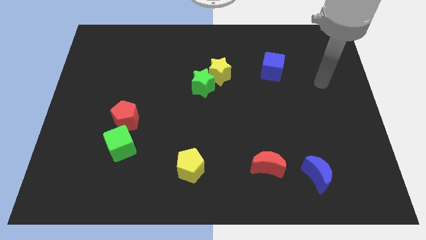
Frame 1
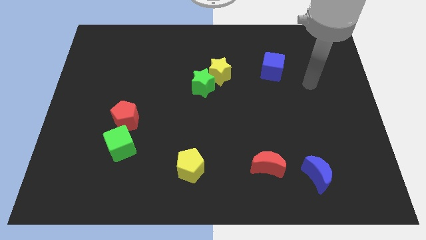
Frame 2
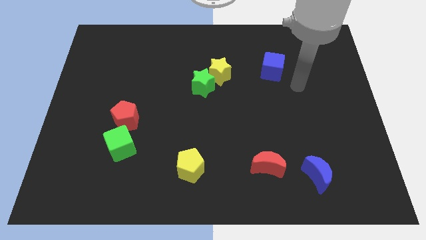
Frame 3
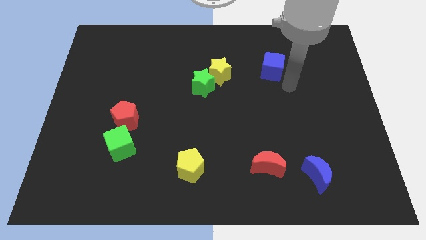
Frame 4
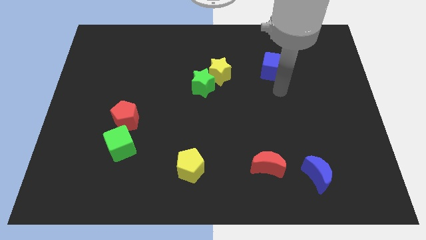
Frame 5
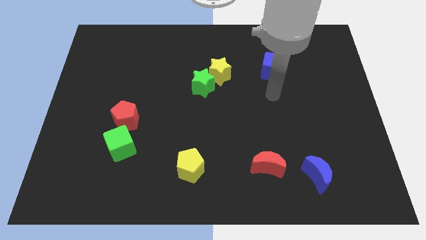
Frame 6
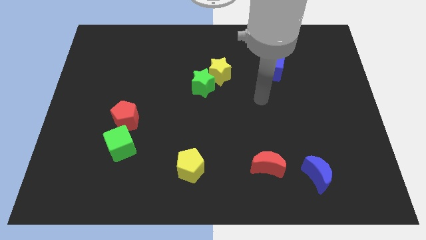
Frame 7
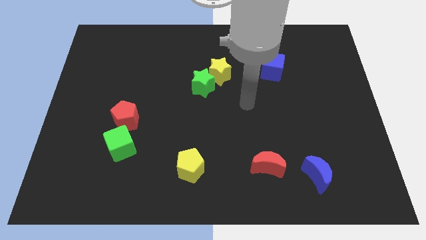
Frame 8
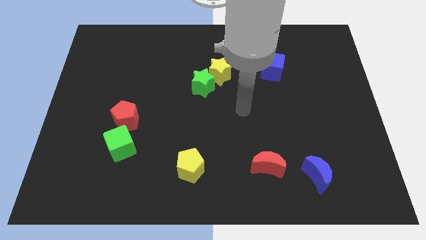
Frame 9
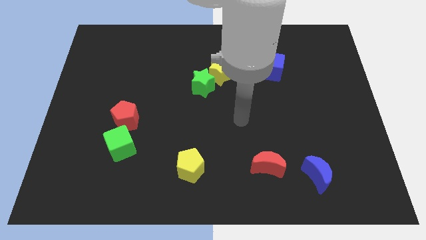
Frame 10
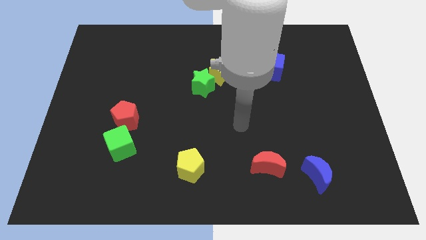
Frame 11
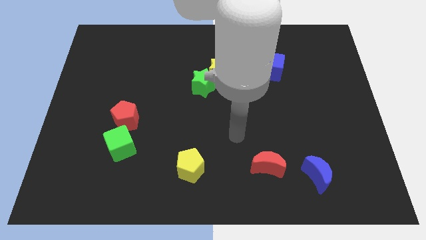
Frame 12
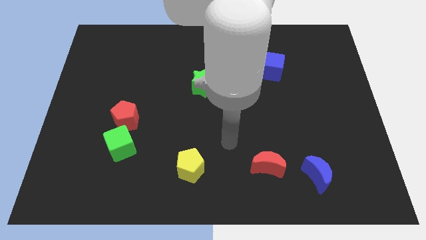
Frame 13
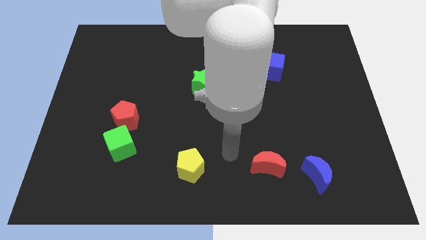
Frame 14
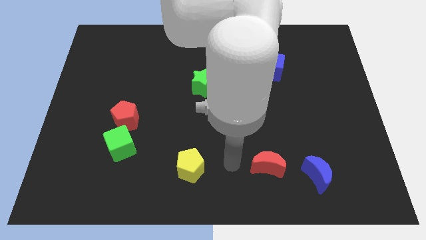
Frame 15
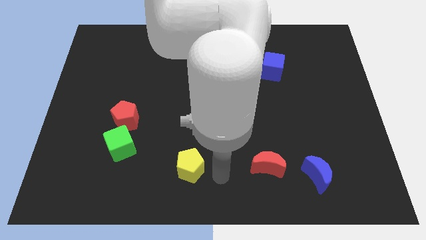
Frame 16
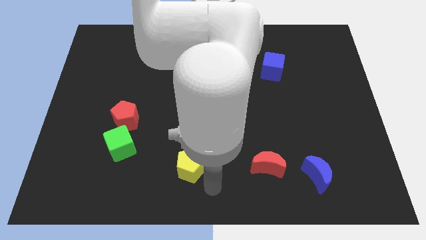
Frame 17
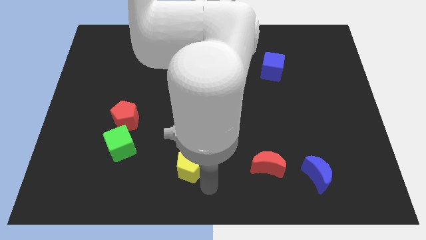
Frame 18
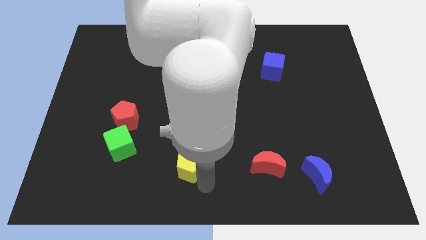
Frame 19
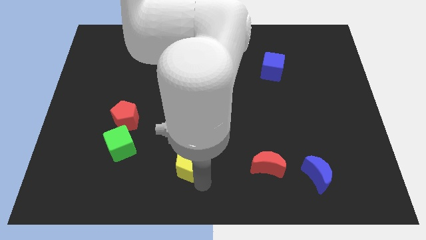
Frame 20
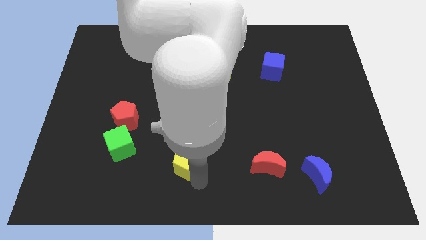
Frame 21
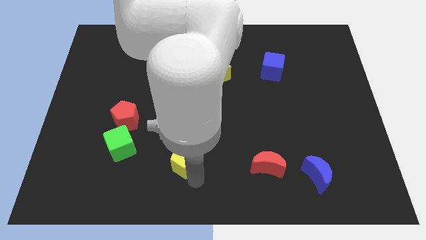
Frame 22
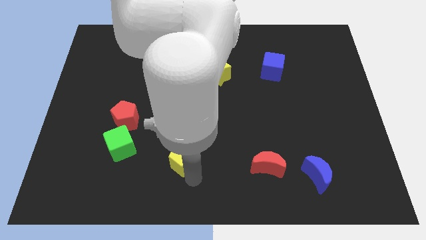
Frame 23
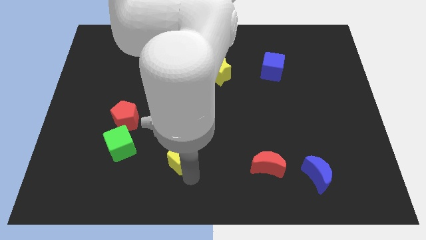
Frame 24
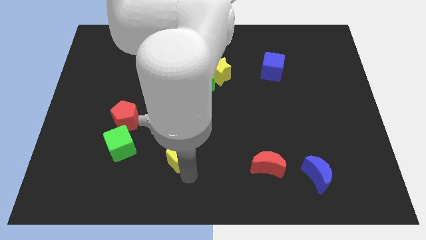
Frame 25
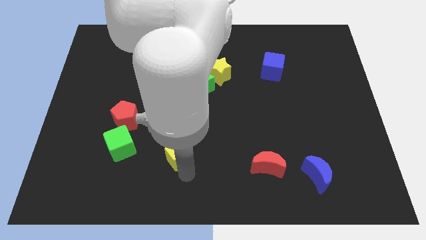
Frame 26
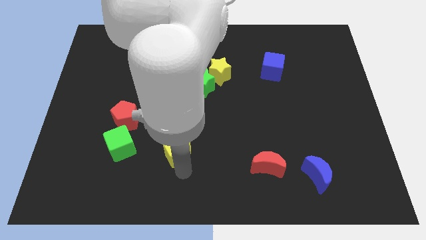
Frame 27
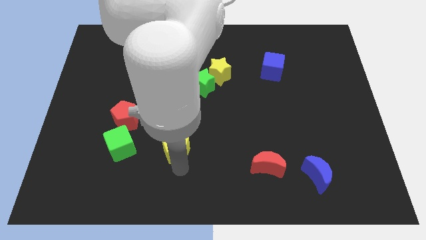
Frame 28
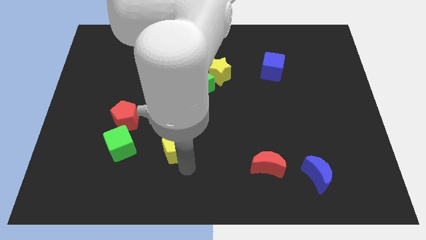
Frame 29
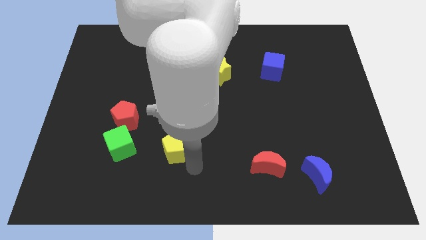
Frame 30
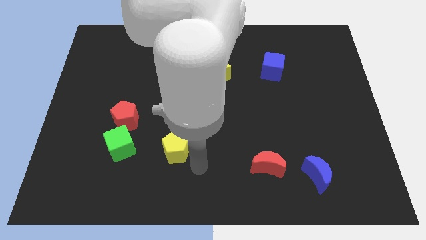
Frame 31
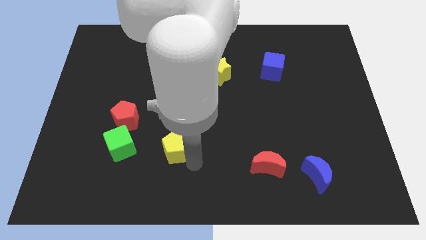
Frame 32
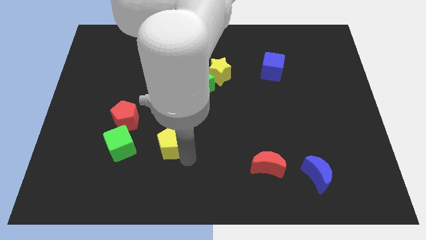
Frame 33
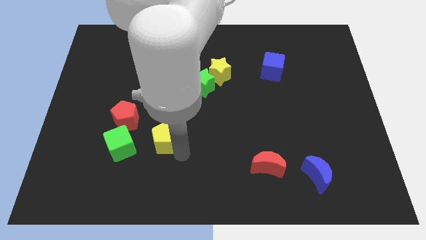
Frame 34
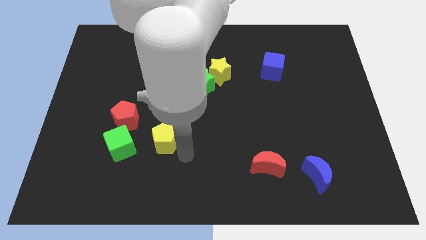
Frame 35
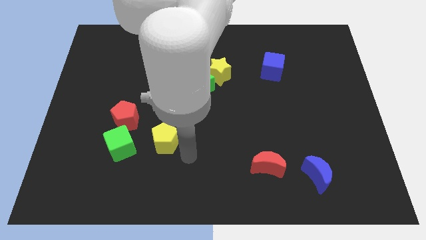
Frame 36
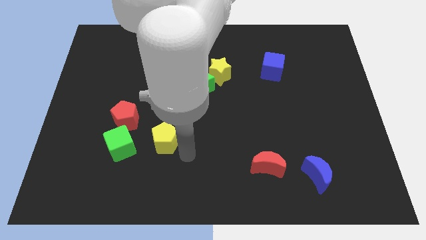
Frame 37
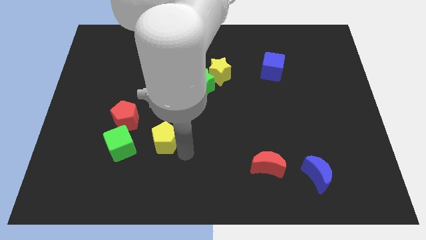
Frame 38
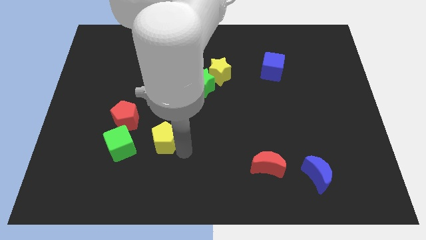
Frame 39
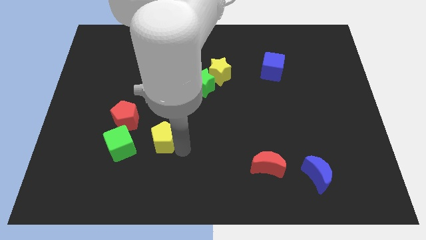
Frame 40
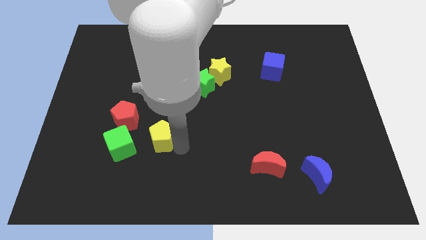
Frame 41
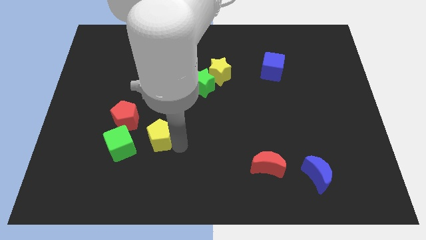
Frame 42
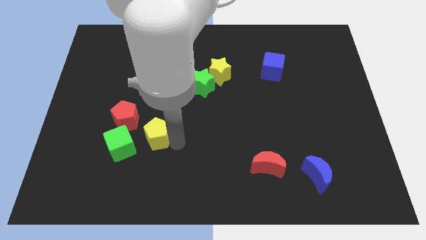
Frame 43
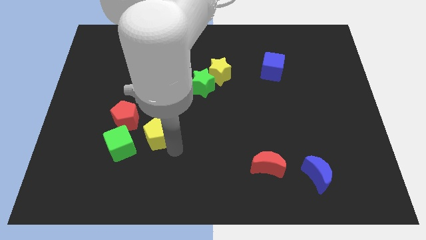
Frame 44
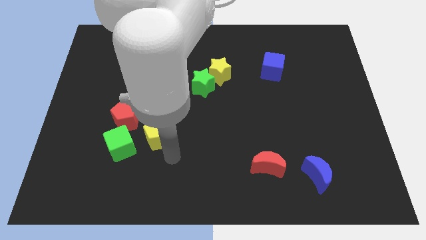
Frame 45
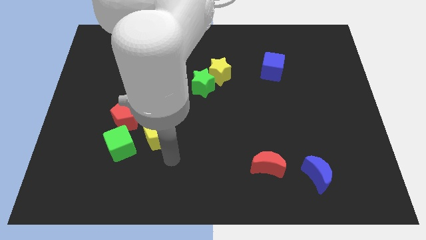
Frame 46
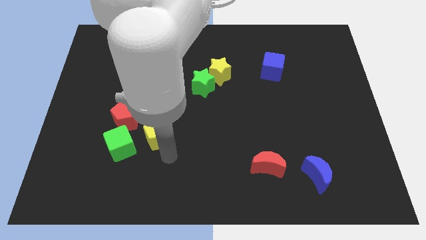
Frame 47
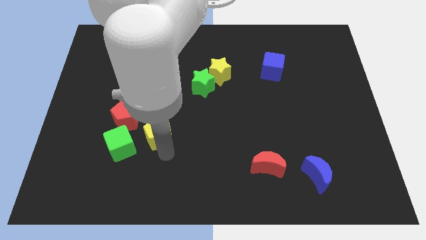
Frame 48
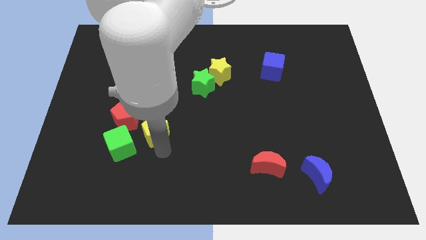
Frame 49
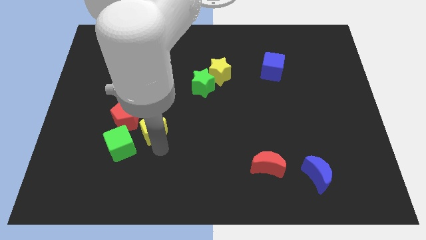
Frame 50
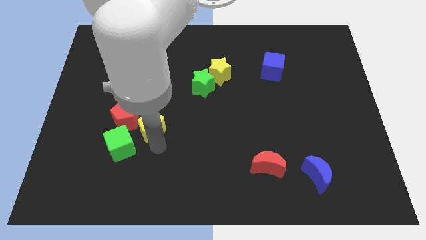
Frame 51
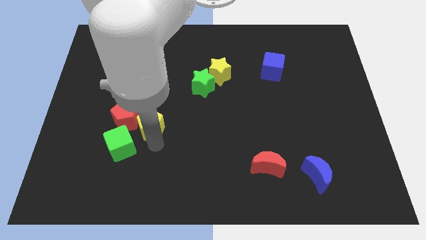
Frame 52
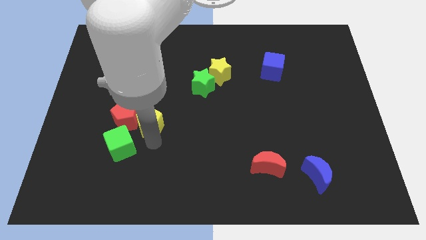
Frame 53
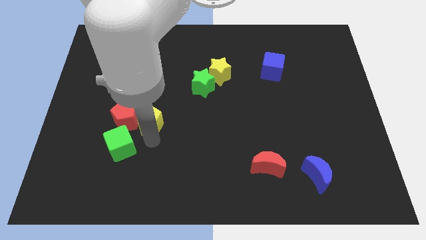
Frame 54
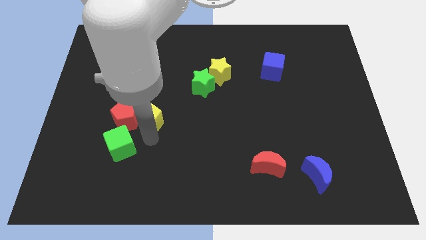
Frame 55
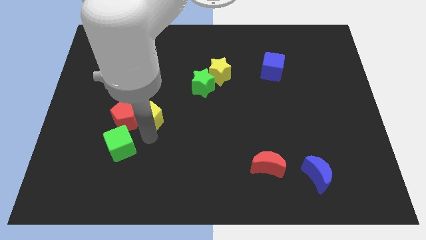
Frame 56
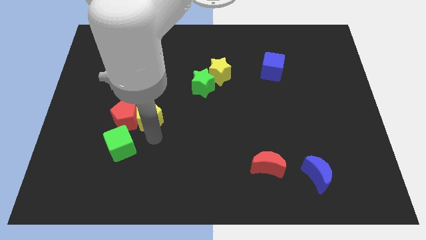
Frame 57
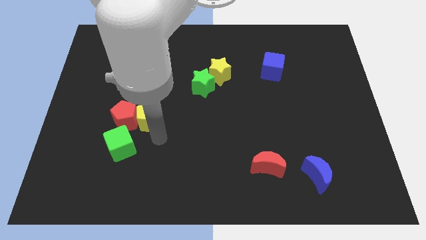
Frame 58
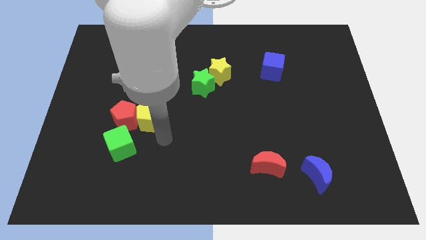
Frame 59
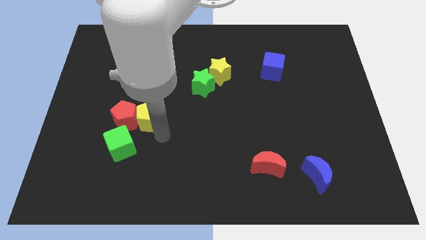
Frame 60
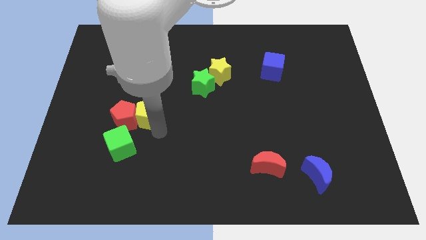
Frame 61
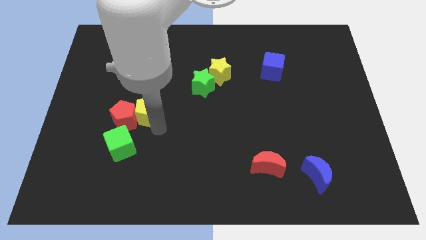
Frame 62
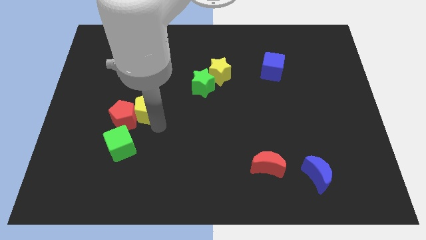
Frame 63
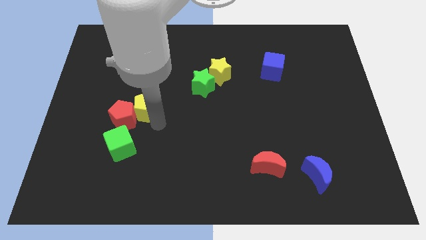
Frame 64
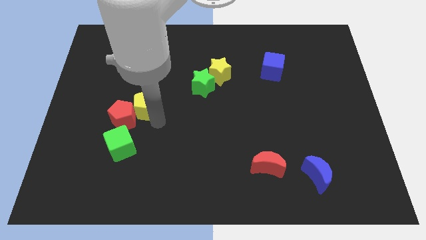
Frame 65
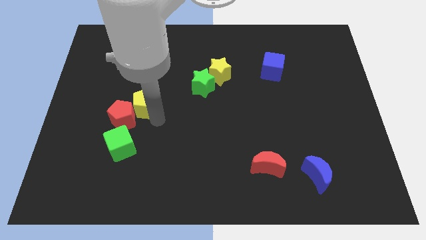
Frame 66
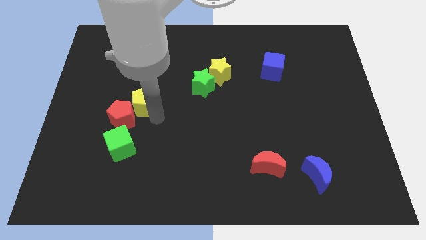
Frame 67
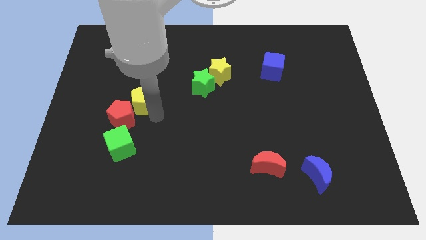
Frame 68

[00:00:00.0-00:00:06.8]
move the yellow pentagon diagonally up and to the left

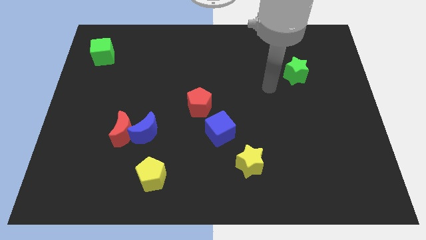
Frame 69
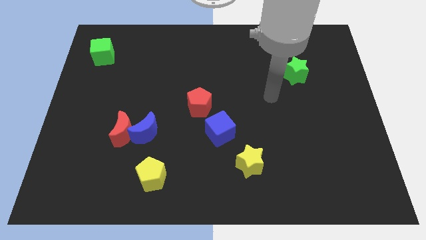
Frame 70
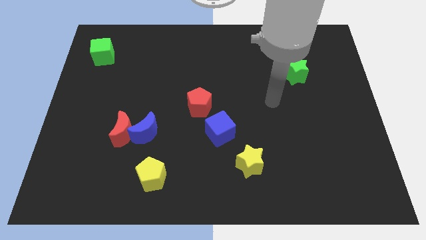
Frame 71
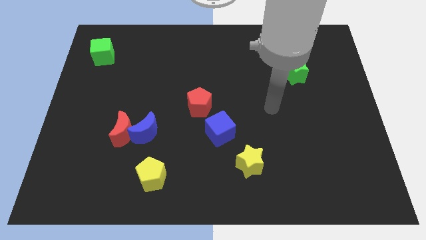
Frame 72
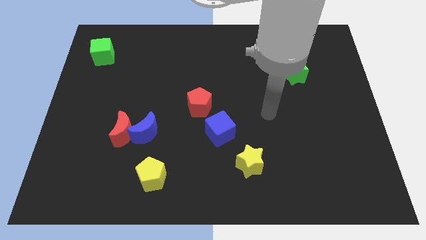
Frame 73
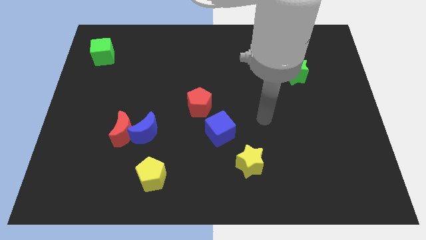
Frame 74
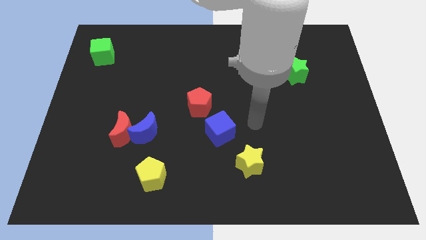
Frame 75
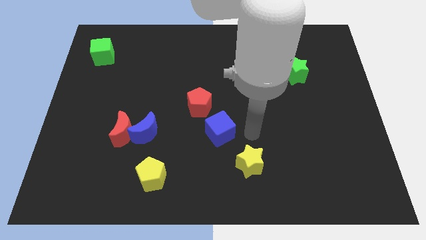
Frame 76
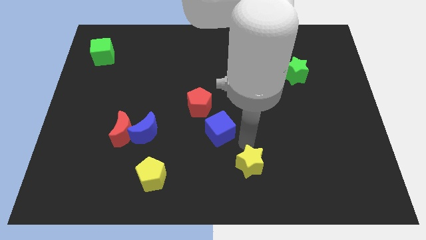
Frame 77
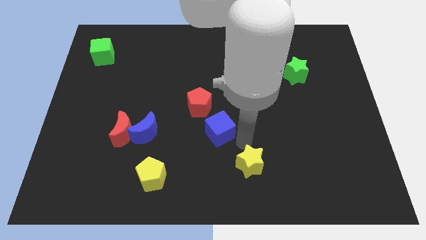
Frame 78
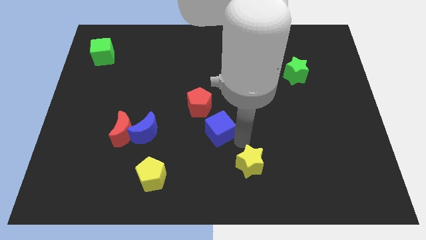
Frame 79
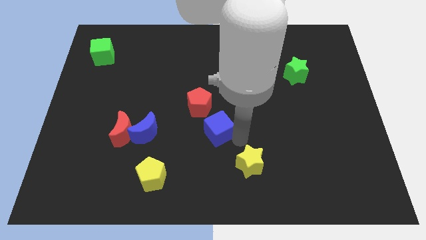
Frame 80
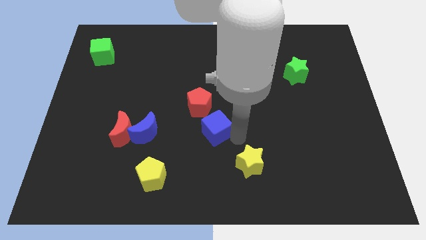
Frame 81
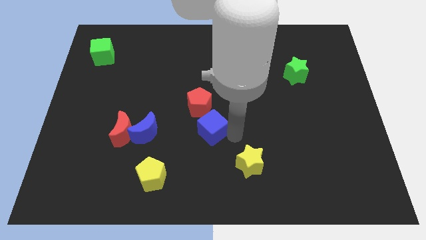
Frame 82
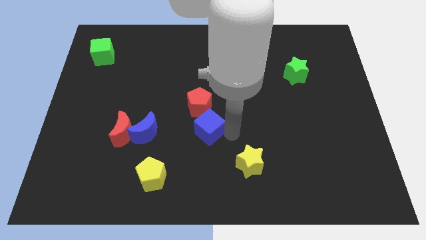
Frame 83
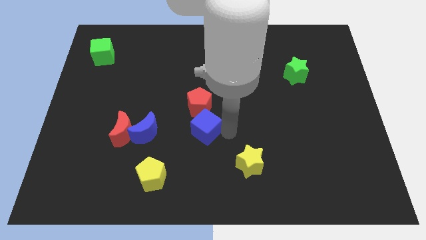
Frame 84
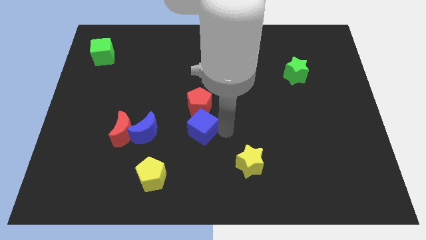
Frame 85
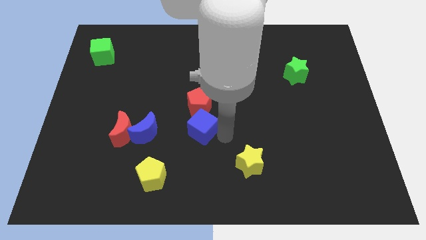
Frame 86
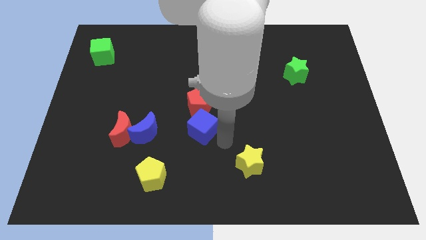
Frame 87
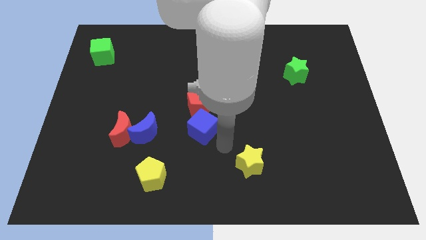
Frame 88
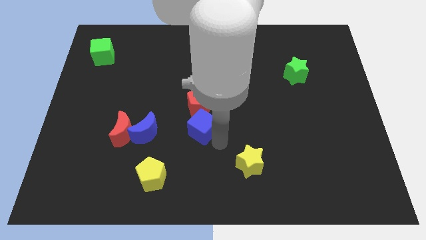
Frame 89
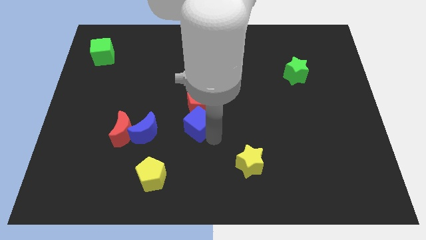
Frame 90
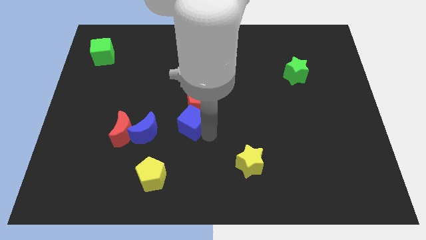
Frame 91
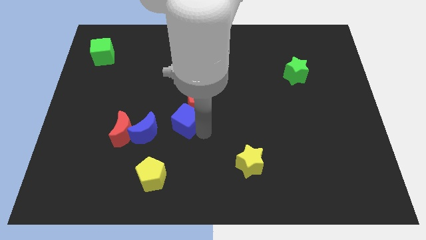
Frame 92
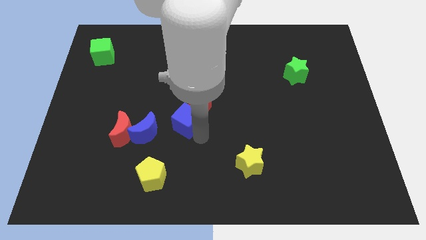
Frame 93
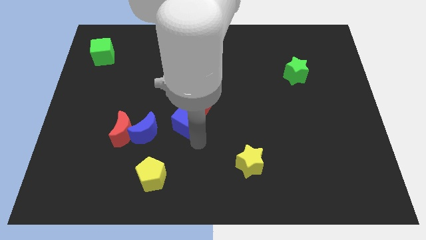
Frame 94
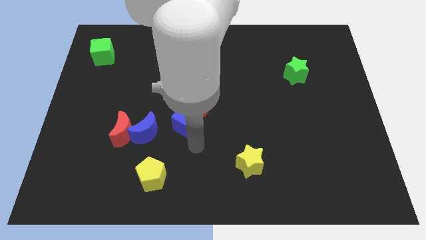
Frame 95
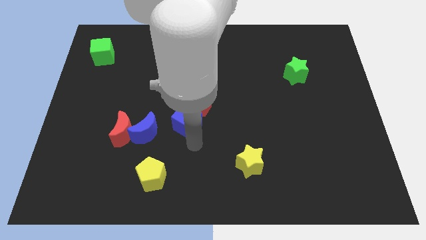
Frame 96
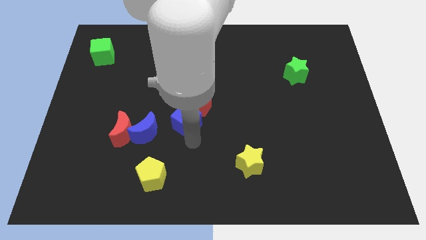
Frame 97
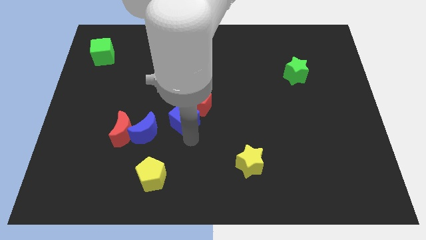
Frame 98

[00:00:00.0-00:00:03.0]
slightly slide the blue cube up and then to the left
